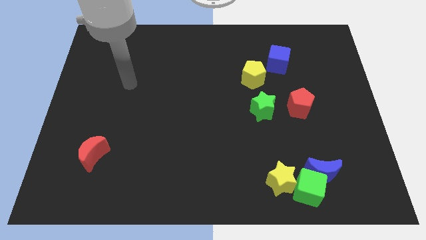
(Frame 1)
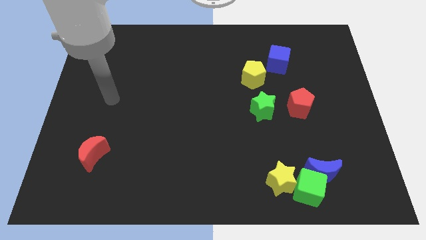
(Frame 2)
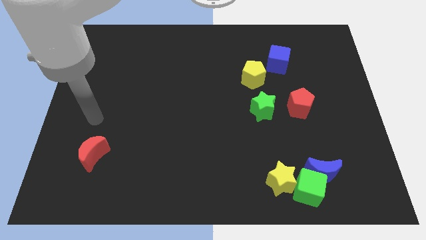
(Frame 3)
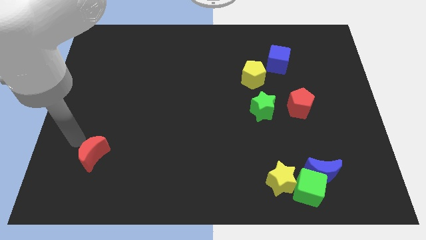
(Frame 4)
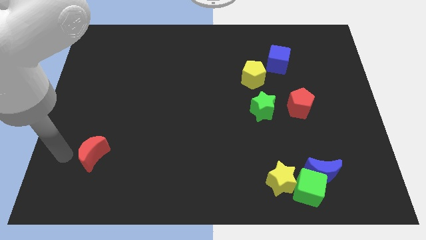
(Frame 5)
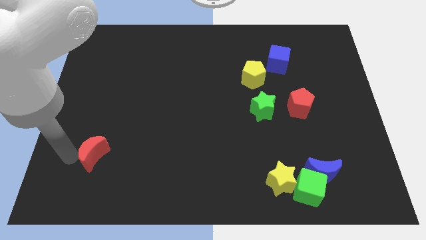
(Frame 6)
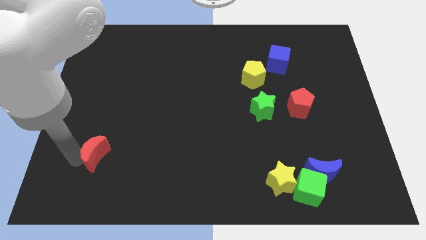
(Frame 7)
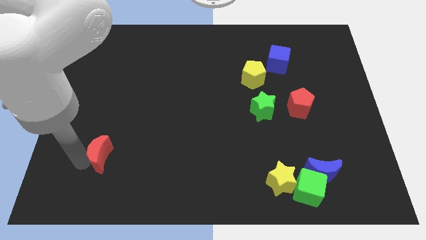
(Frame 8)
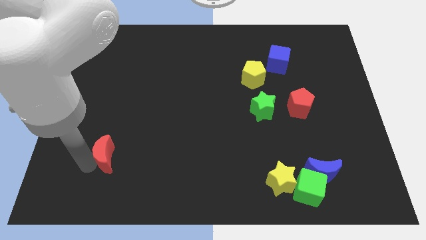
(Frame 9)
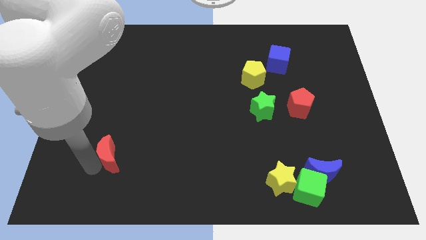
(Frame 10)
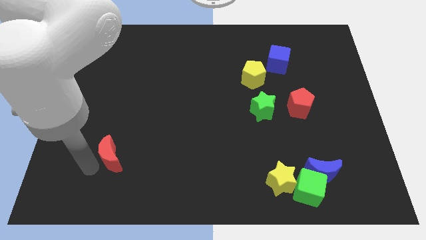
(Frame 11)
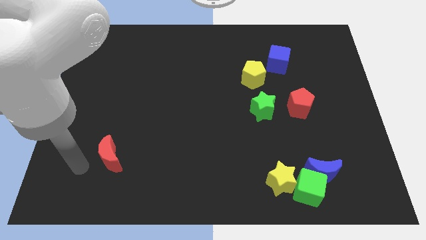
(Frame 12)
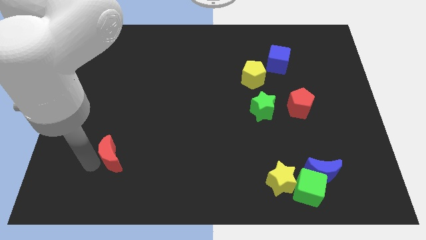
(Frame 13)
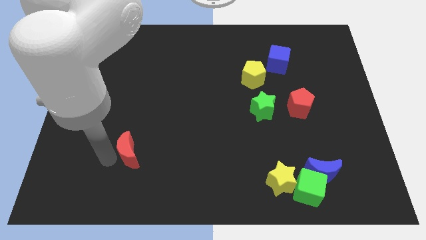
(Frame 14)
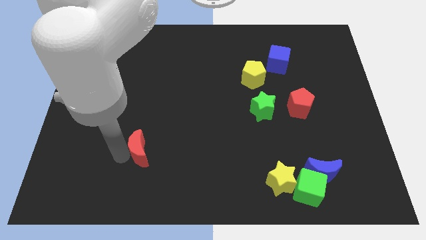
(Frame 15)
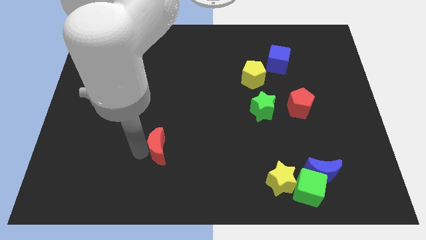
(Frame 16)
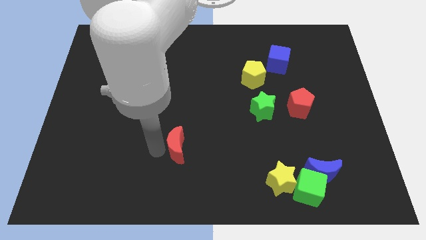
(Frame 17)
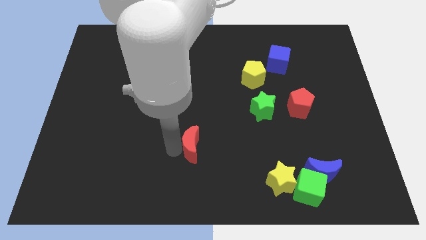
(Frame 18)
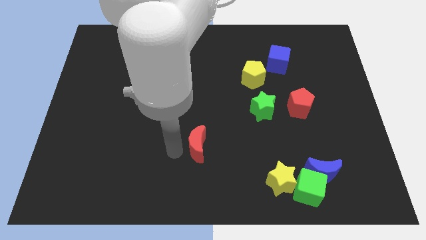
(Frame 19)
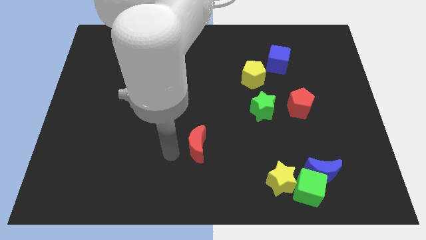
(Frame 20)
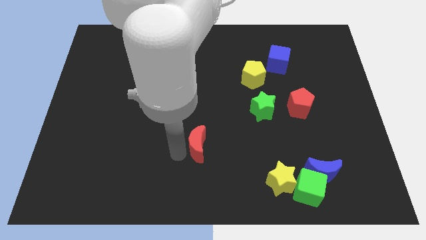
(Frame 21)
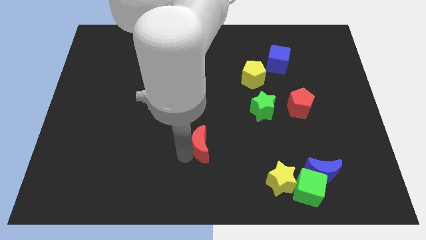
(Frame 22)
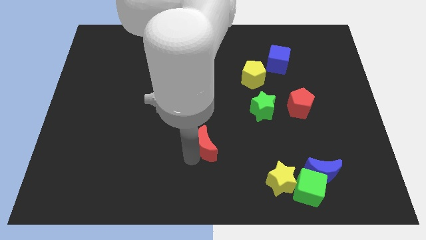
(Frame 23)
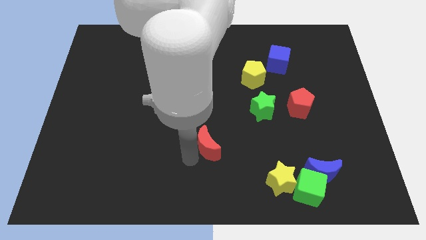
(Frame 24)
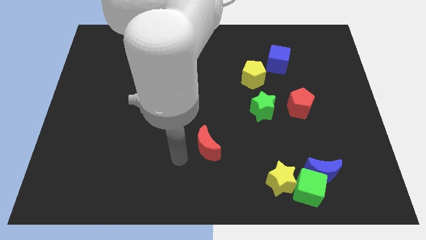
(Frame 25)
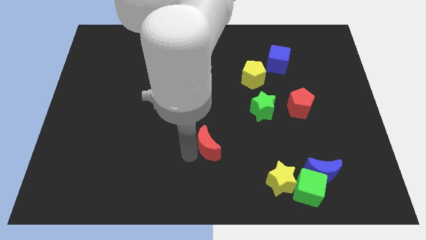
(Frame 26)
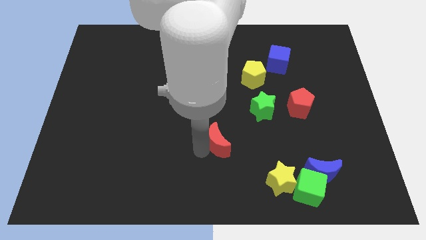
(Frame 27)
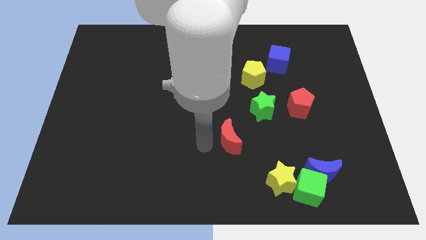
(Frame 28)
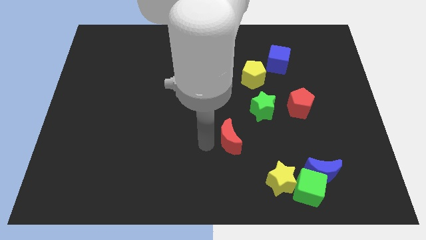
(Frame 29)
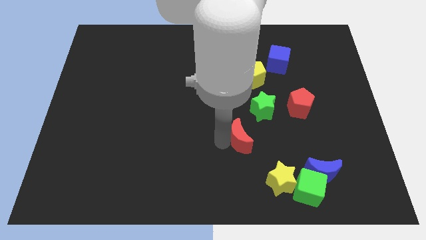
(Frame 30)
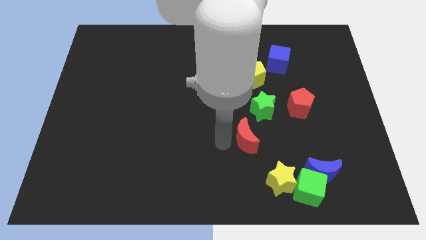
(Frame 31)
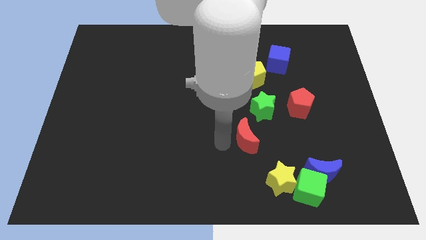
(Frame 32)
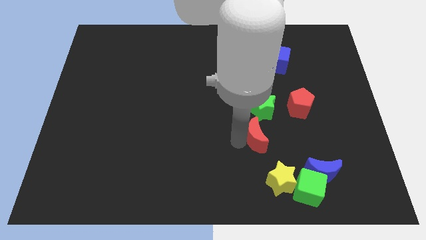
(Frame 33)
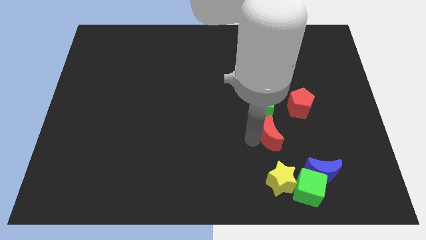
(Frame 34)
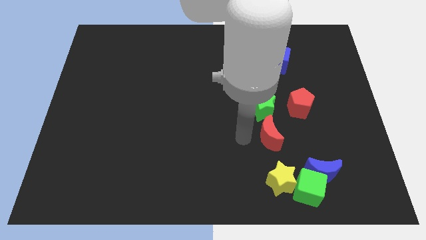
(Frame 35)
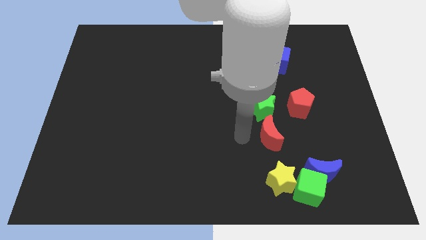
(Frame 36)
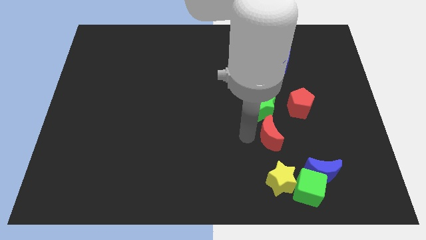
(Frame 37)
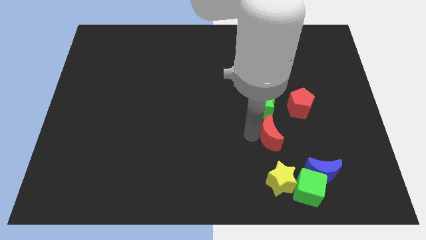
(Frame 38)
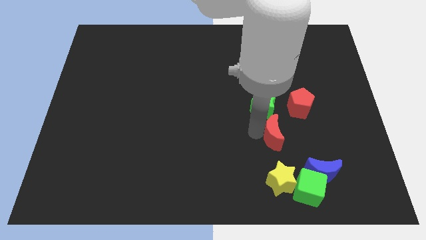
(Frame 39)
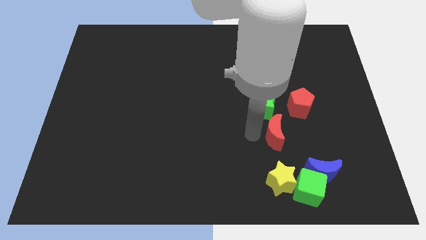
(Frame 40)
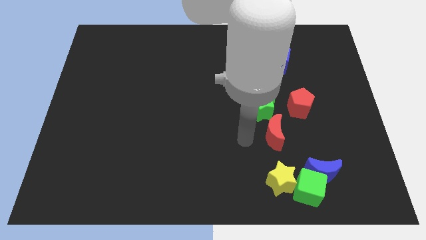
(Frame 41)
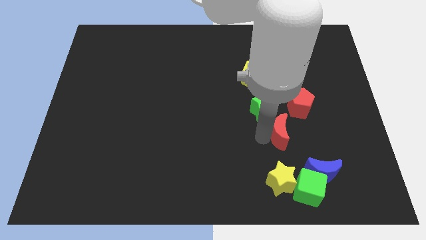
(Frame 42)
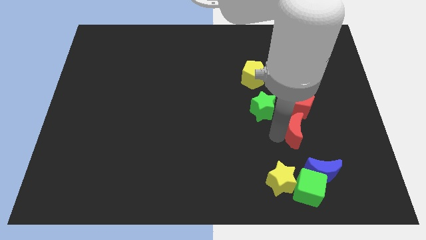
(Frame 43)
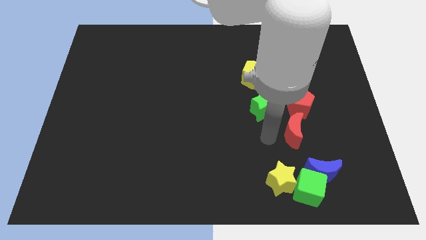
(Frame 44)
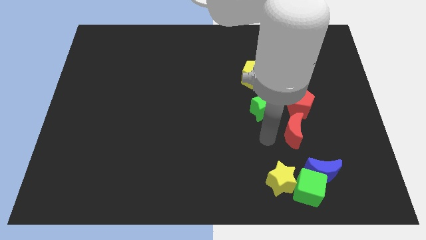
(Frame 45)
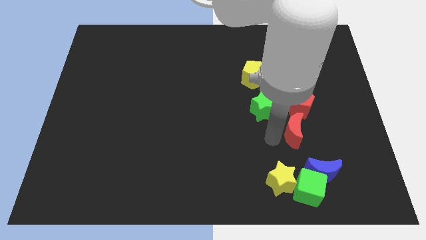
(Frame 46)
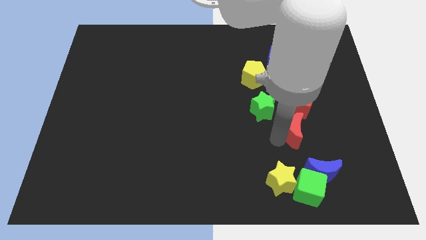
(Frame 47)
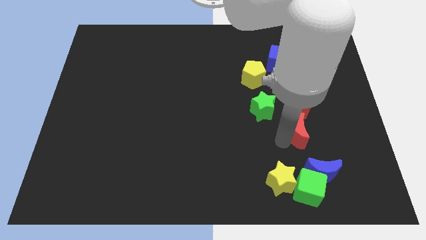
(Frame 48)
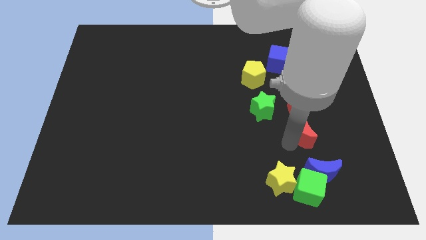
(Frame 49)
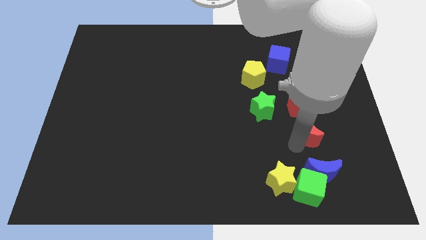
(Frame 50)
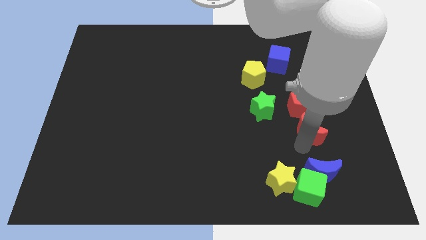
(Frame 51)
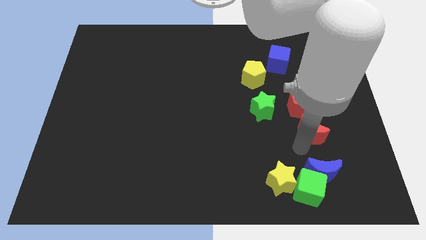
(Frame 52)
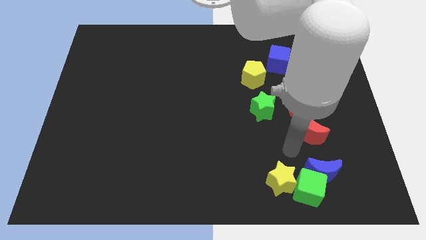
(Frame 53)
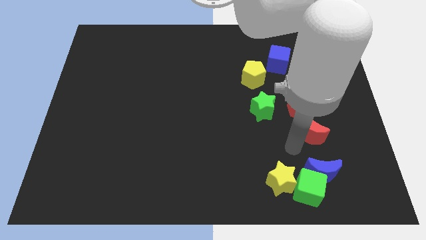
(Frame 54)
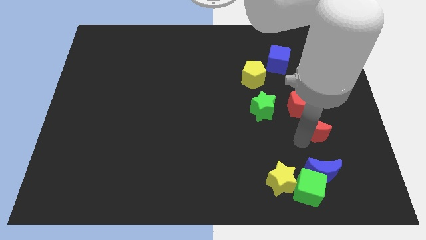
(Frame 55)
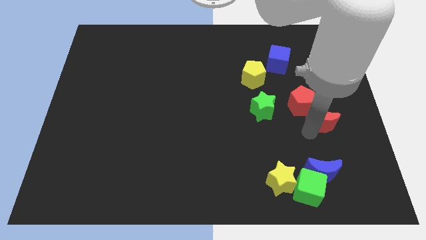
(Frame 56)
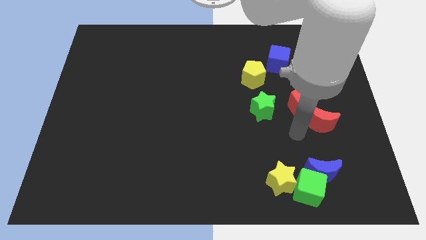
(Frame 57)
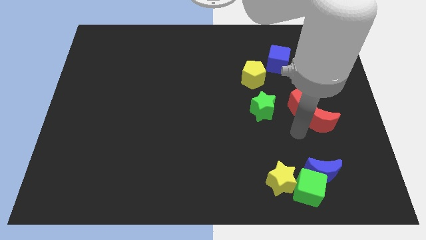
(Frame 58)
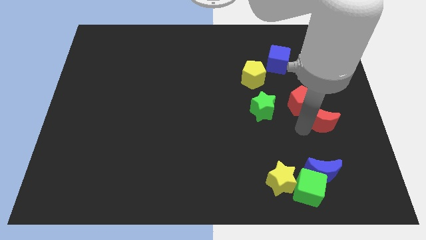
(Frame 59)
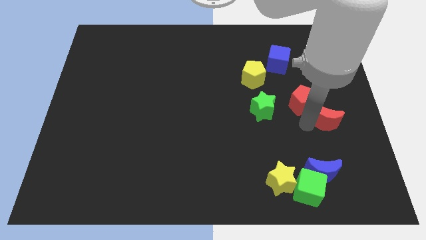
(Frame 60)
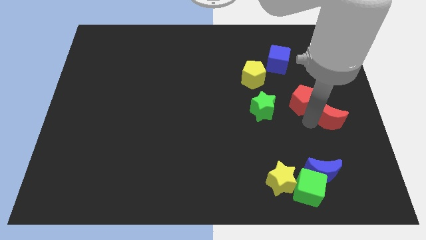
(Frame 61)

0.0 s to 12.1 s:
slide the red moon to the center right
